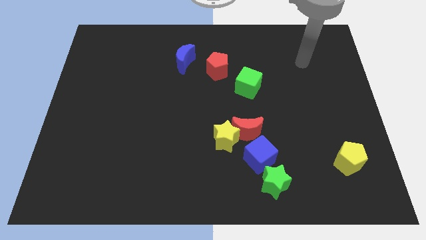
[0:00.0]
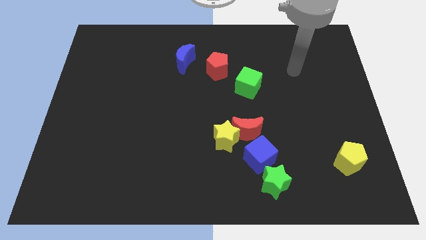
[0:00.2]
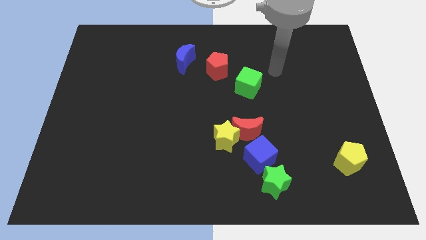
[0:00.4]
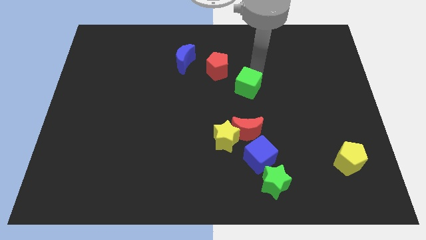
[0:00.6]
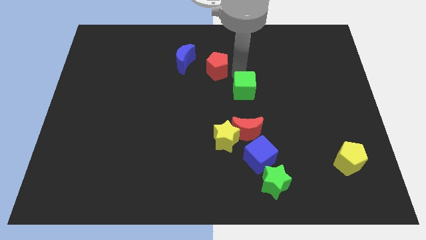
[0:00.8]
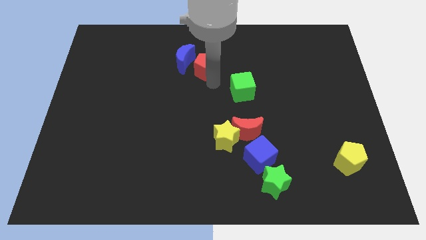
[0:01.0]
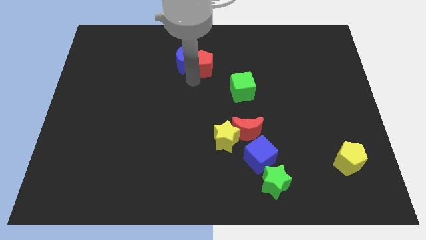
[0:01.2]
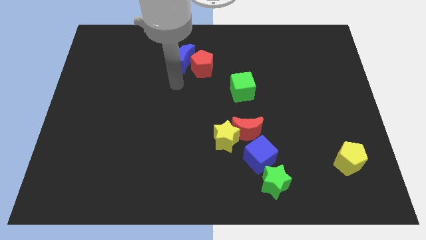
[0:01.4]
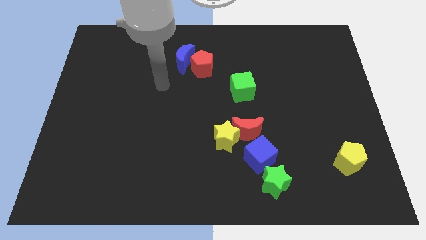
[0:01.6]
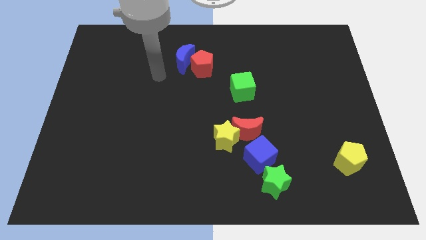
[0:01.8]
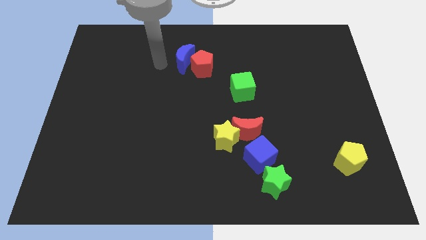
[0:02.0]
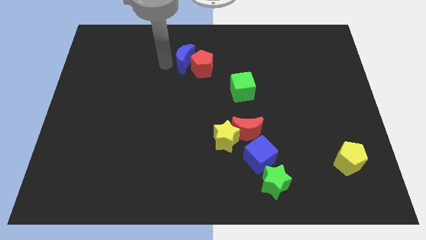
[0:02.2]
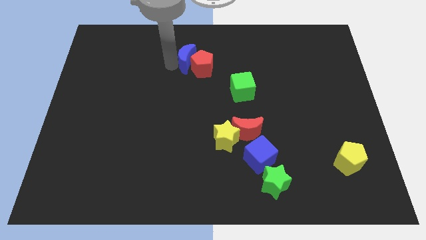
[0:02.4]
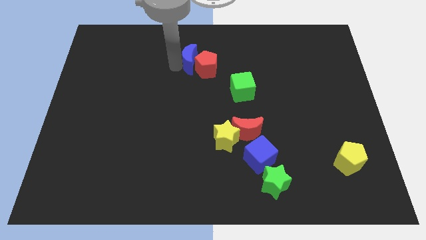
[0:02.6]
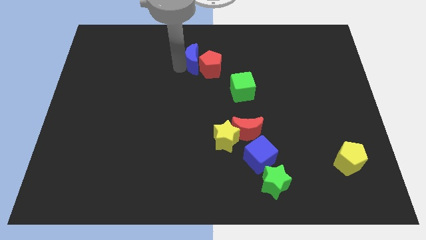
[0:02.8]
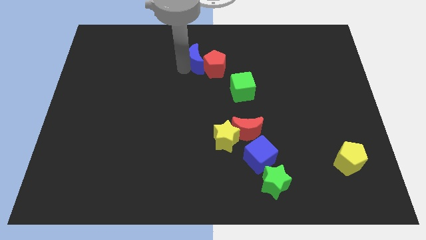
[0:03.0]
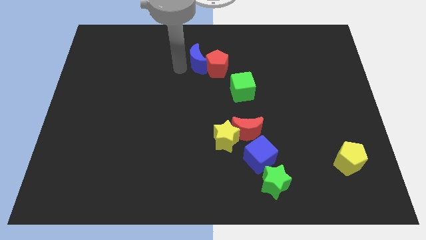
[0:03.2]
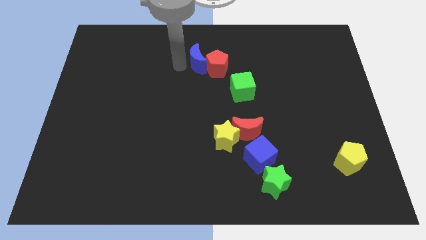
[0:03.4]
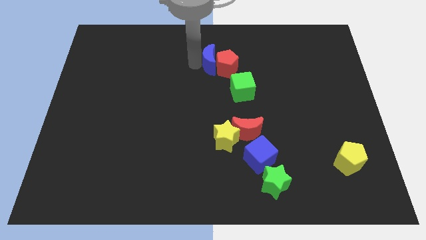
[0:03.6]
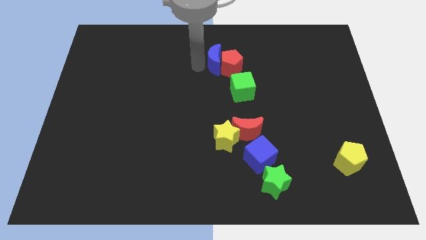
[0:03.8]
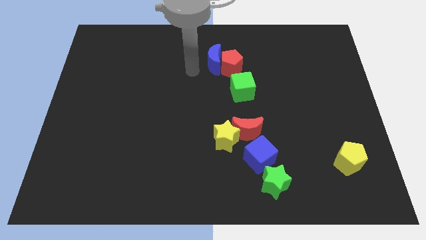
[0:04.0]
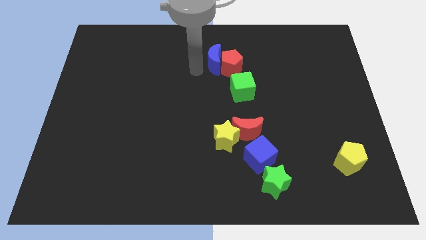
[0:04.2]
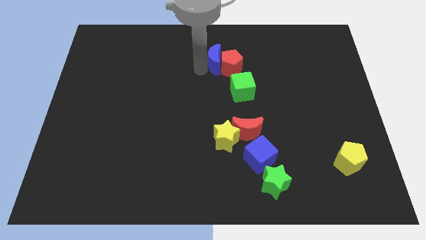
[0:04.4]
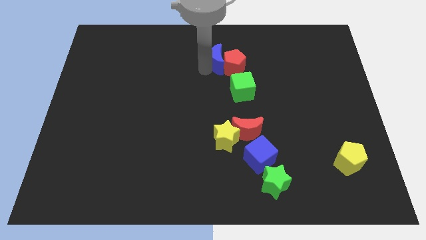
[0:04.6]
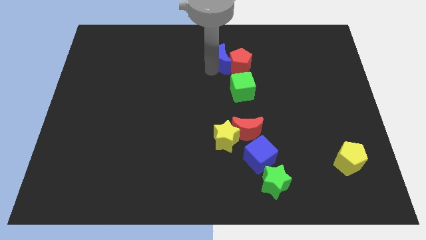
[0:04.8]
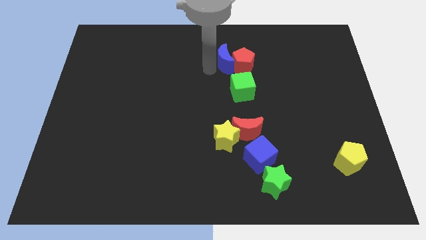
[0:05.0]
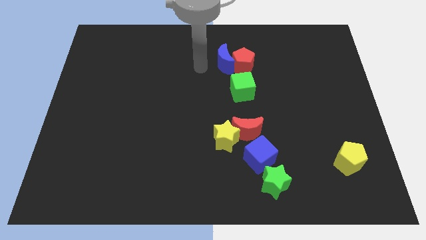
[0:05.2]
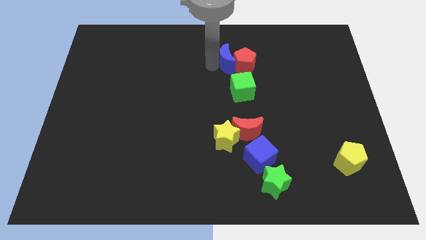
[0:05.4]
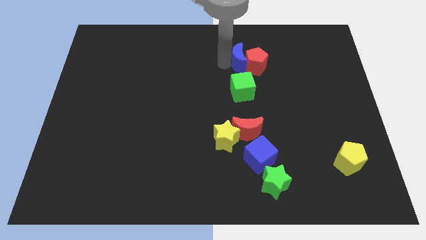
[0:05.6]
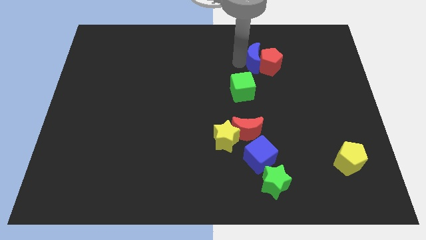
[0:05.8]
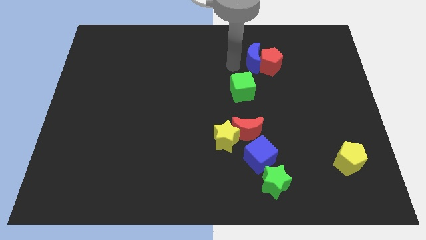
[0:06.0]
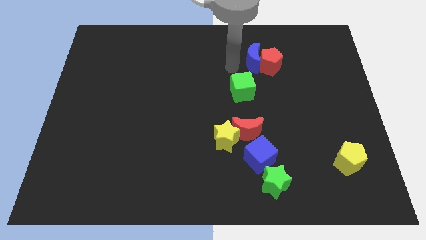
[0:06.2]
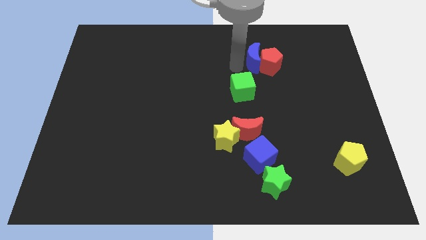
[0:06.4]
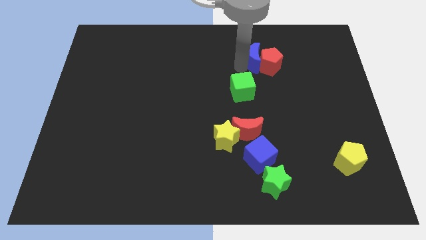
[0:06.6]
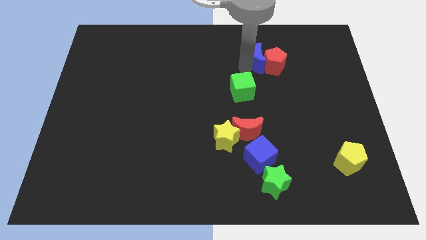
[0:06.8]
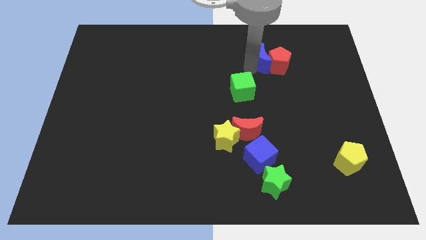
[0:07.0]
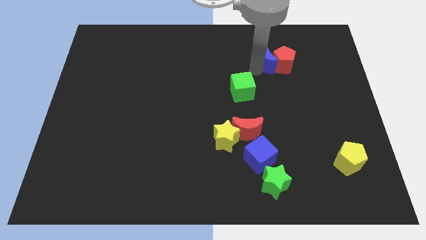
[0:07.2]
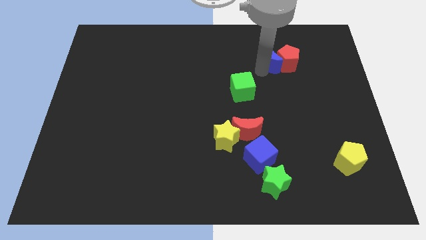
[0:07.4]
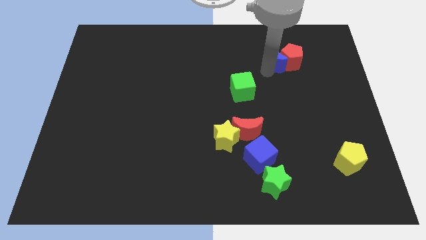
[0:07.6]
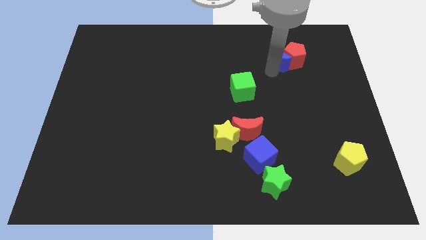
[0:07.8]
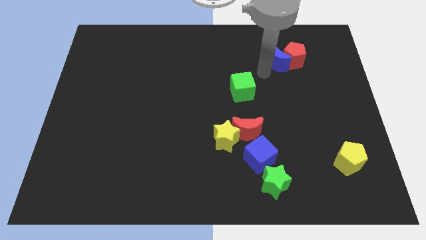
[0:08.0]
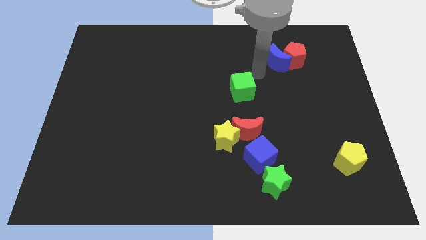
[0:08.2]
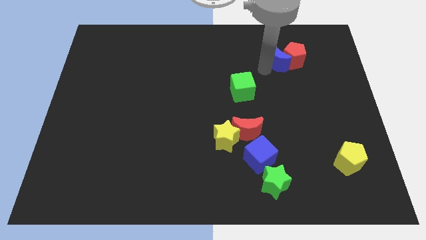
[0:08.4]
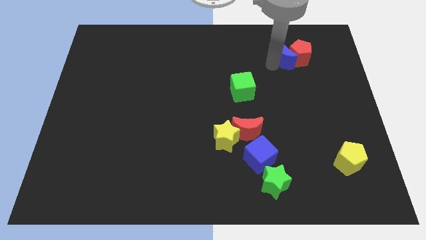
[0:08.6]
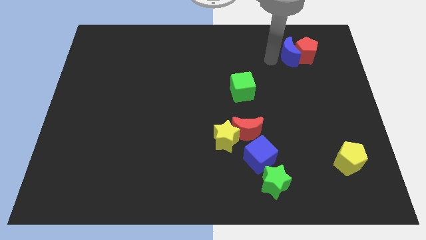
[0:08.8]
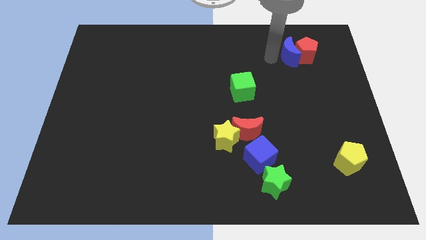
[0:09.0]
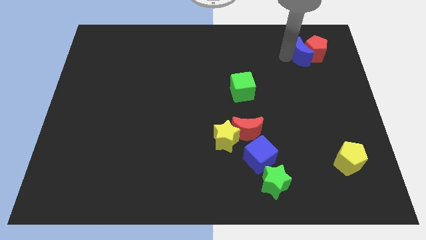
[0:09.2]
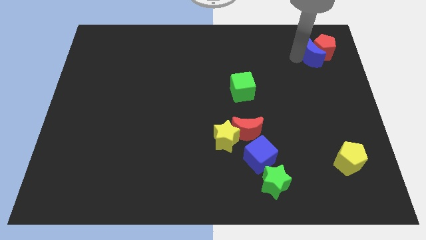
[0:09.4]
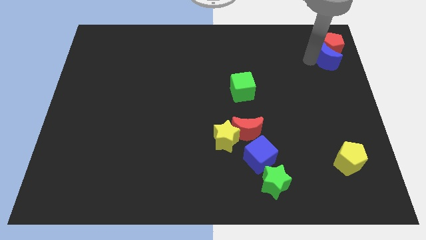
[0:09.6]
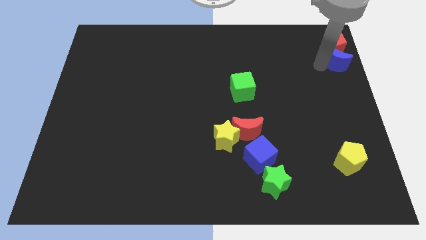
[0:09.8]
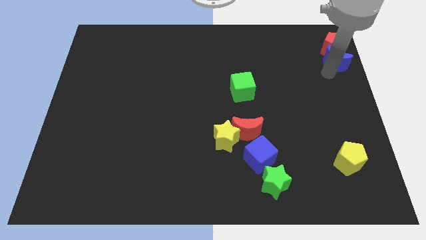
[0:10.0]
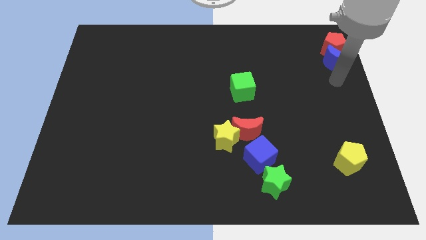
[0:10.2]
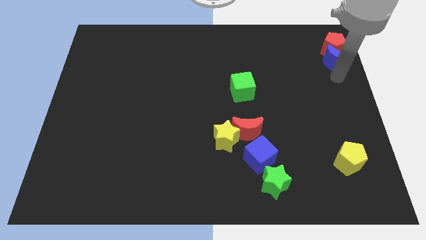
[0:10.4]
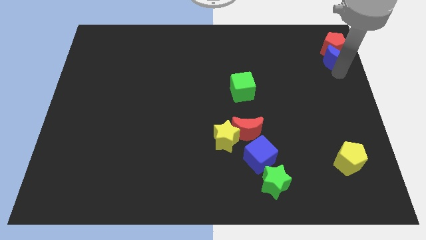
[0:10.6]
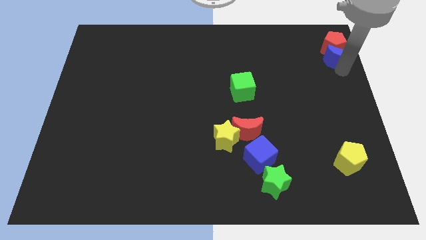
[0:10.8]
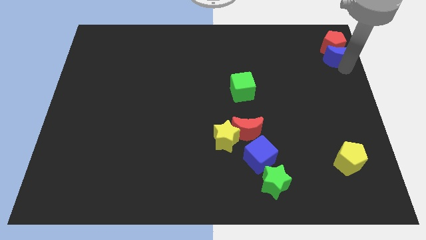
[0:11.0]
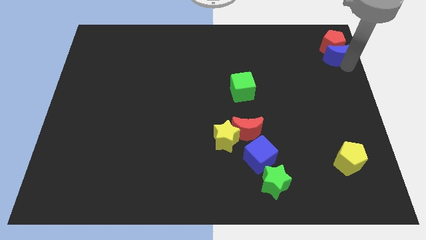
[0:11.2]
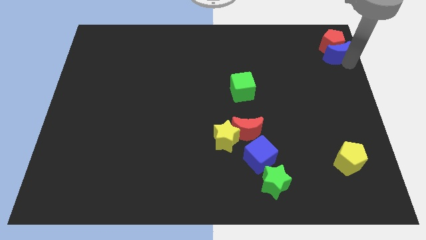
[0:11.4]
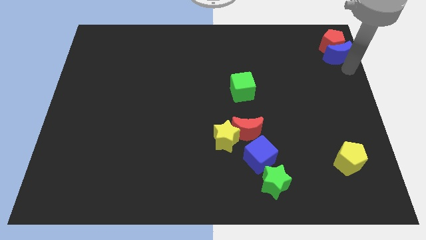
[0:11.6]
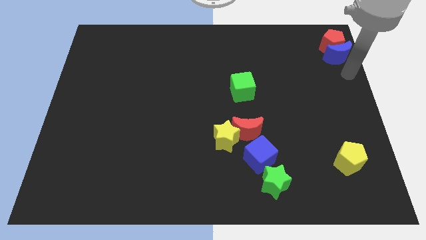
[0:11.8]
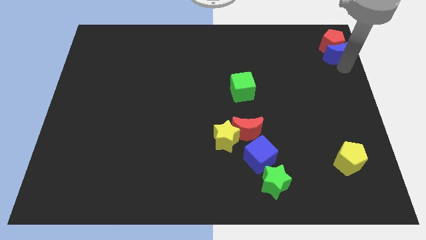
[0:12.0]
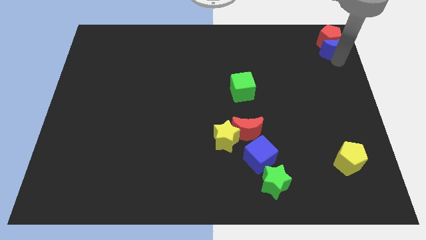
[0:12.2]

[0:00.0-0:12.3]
move the blue moon to the top right
